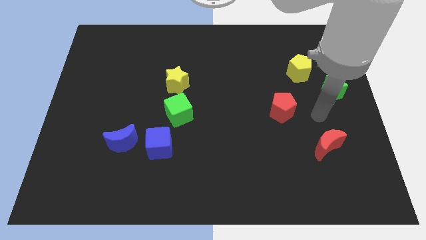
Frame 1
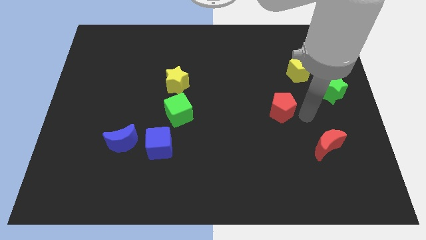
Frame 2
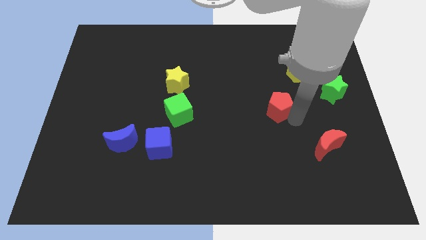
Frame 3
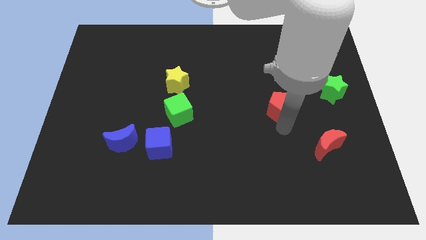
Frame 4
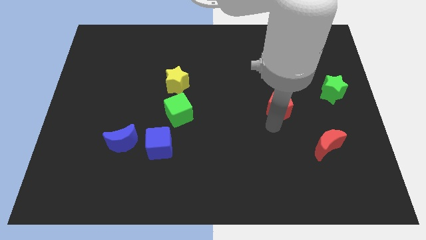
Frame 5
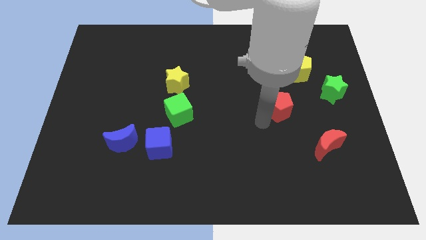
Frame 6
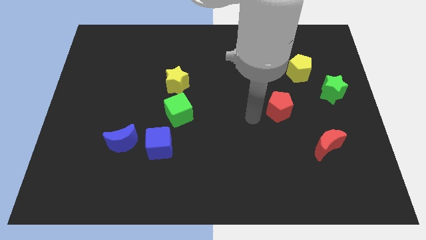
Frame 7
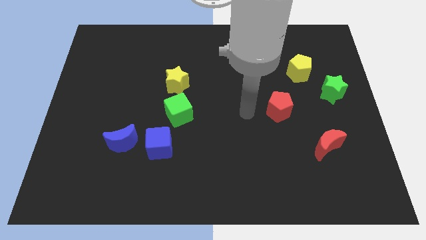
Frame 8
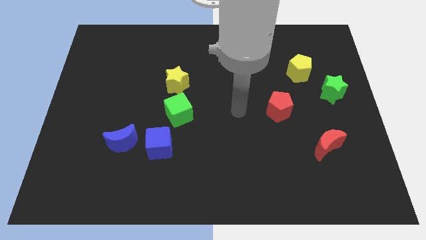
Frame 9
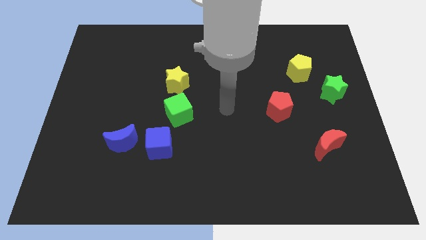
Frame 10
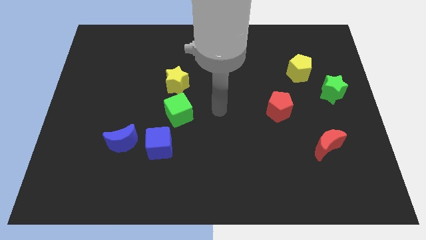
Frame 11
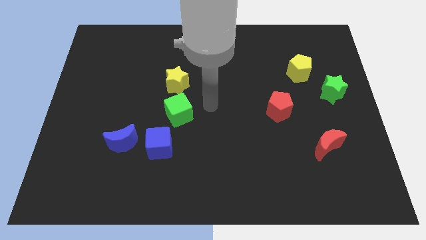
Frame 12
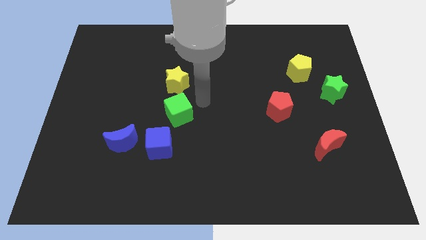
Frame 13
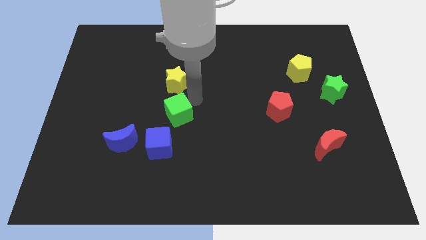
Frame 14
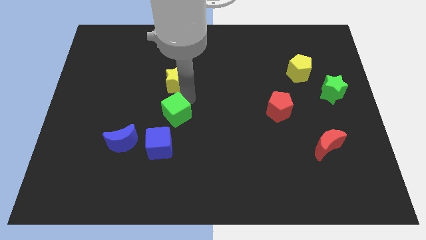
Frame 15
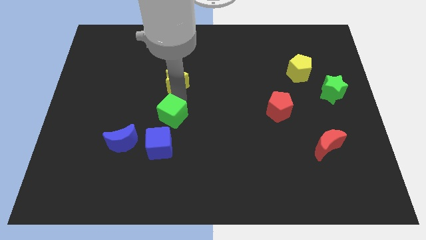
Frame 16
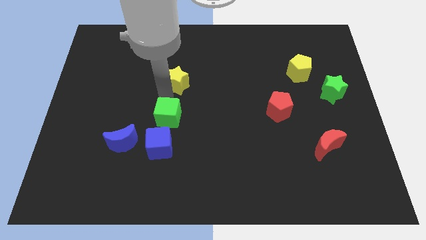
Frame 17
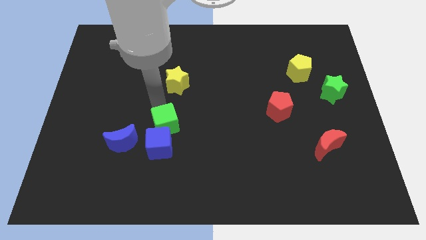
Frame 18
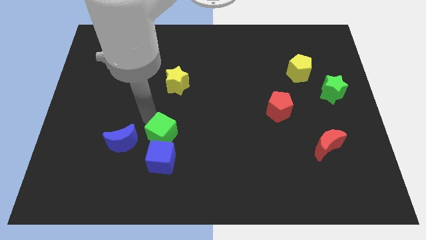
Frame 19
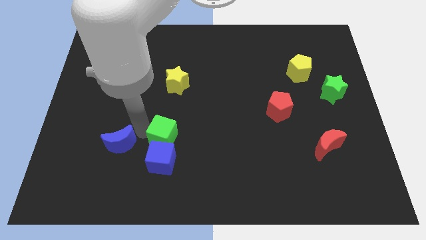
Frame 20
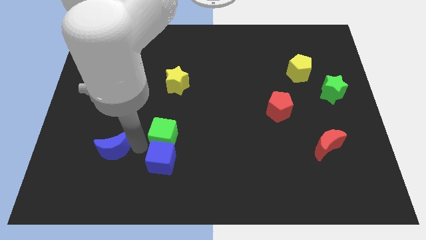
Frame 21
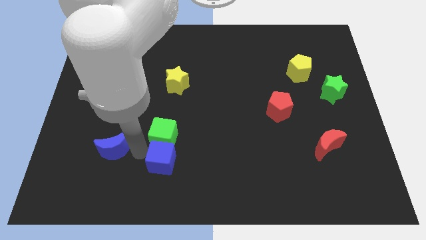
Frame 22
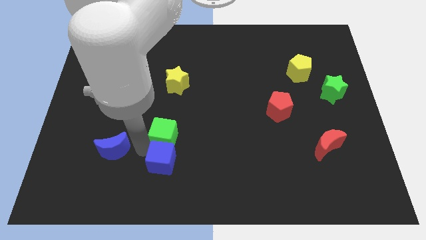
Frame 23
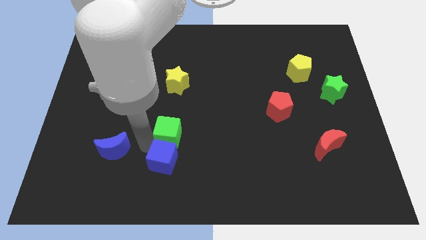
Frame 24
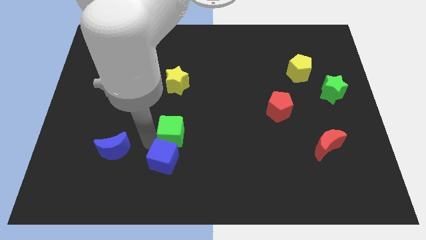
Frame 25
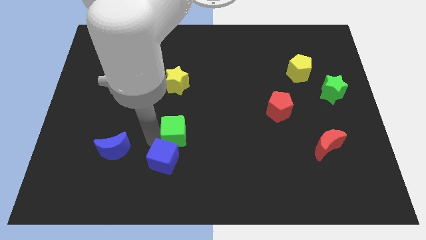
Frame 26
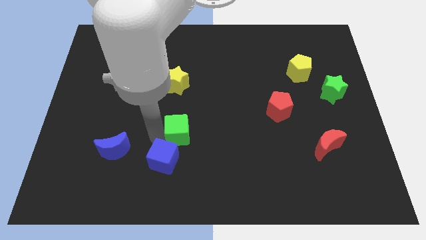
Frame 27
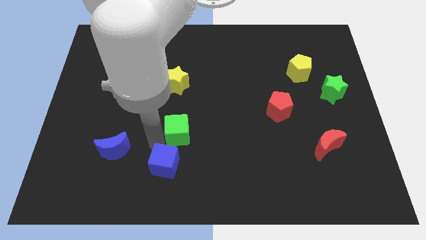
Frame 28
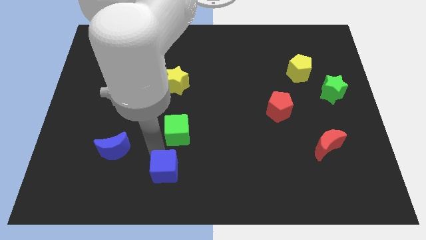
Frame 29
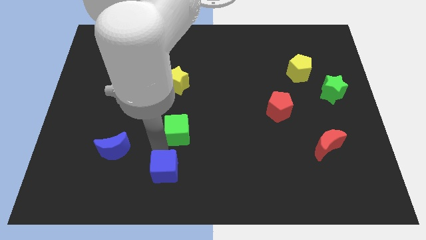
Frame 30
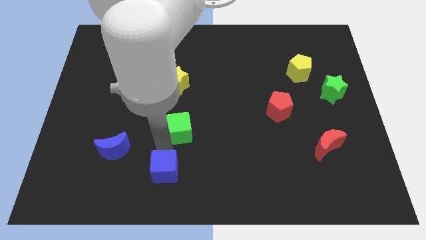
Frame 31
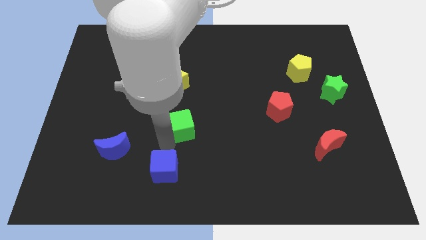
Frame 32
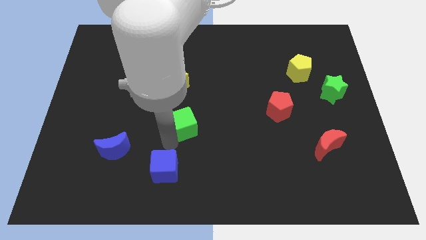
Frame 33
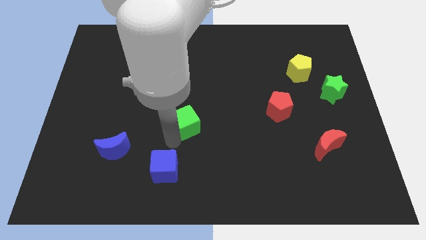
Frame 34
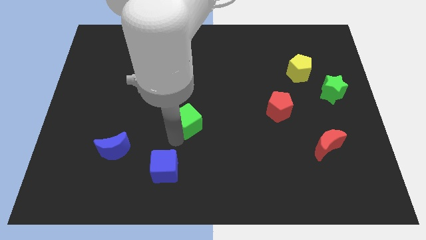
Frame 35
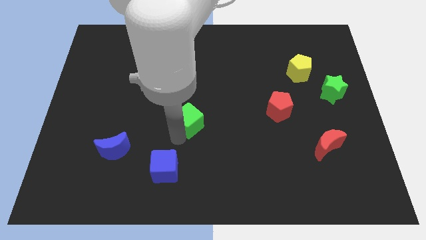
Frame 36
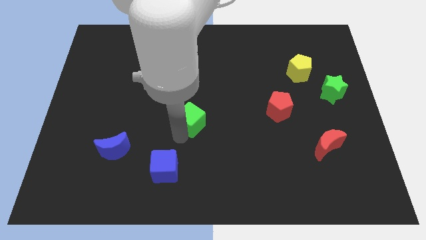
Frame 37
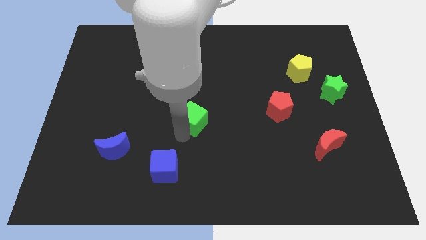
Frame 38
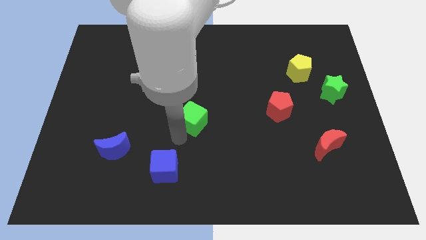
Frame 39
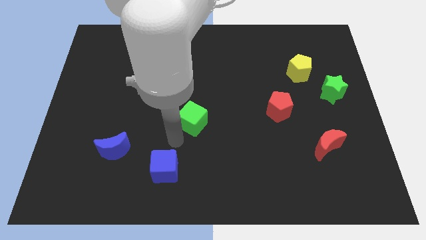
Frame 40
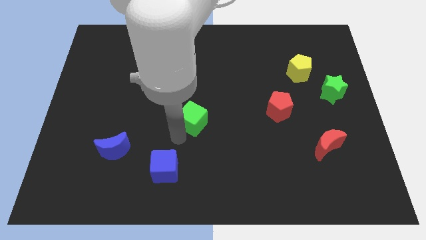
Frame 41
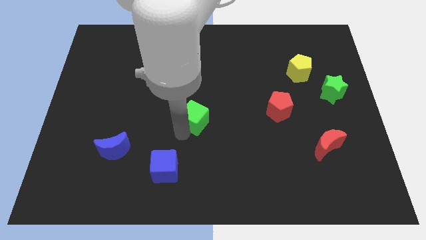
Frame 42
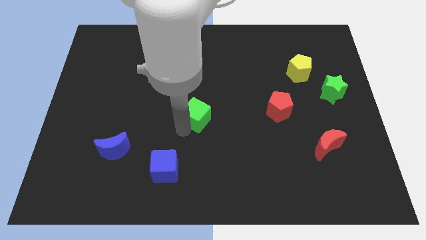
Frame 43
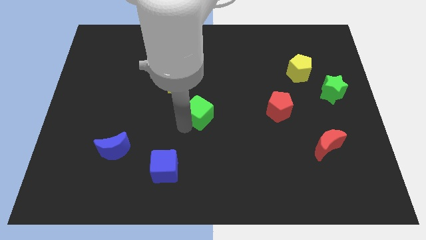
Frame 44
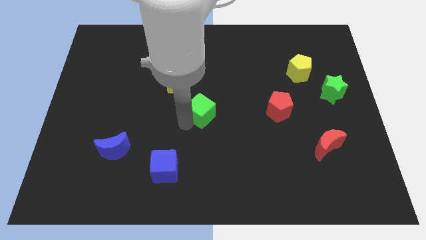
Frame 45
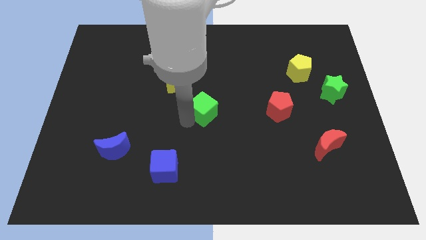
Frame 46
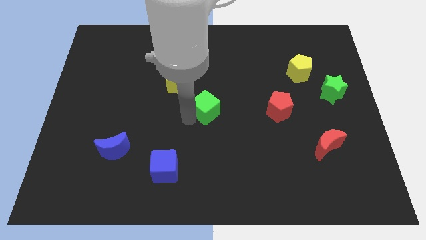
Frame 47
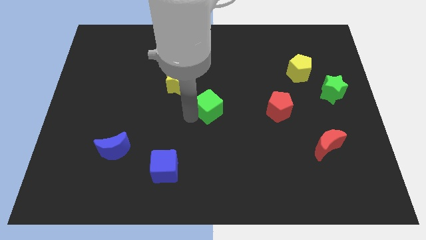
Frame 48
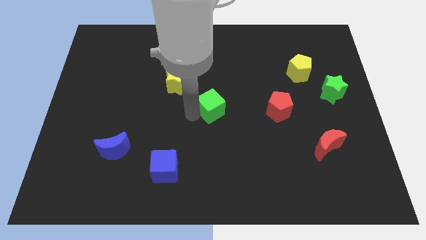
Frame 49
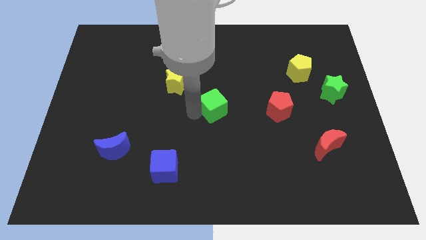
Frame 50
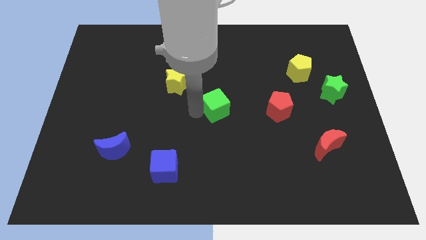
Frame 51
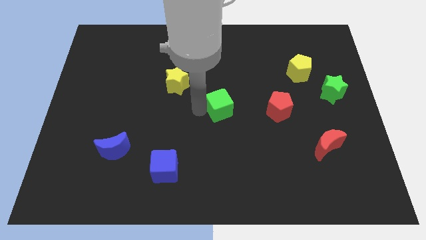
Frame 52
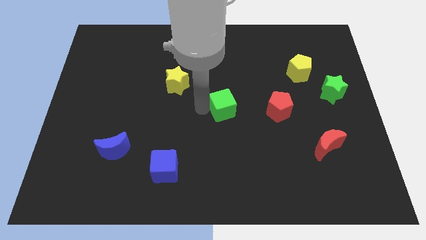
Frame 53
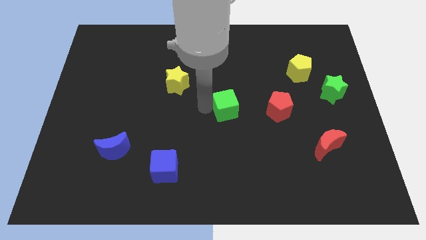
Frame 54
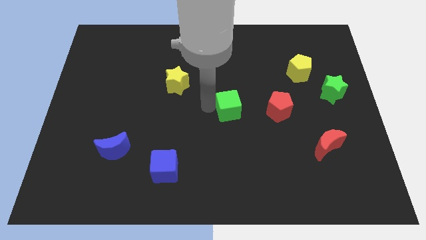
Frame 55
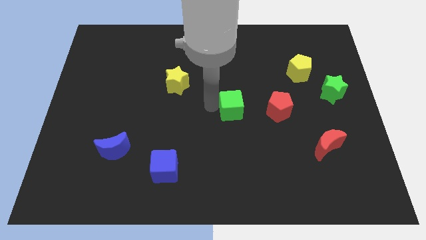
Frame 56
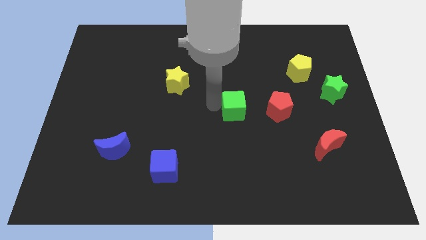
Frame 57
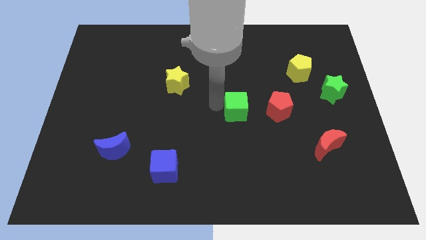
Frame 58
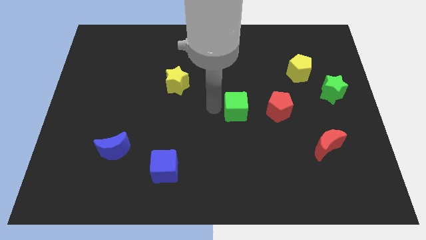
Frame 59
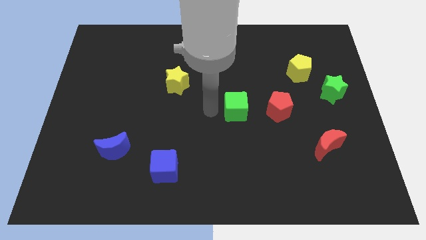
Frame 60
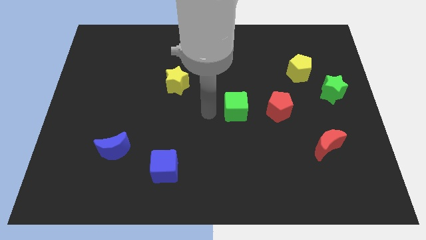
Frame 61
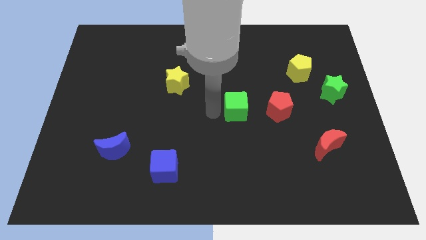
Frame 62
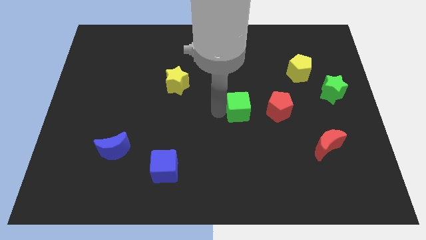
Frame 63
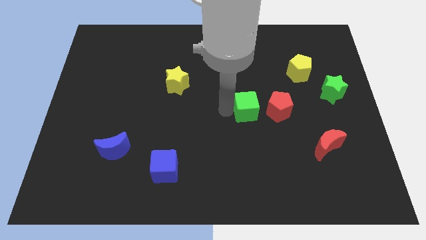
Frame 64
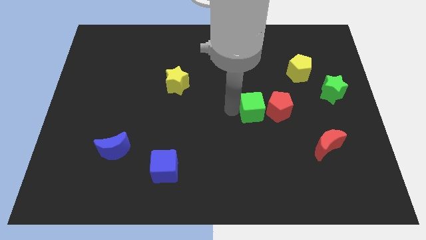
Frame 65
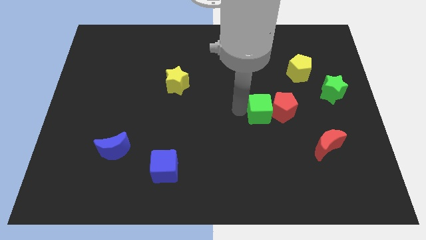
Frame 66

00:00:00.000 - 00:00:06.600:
slide the green cube to the red pentagon

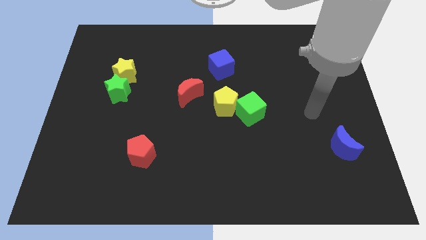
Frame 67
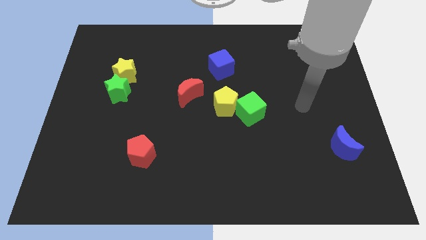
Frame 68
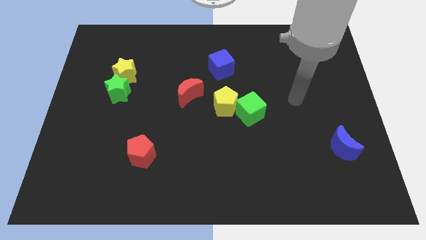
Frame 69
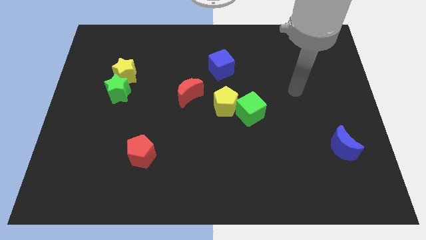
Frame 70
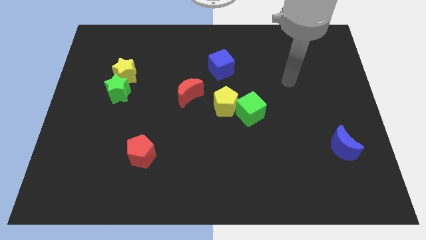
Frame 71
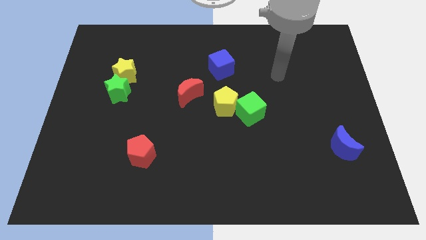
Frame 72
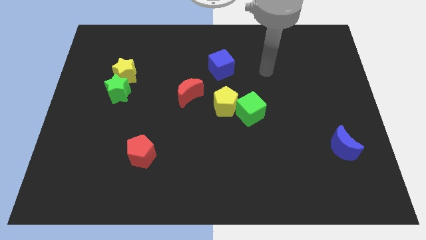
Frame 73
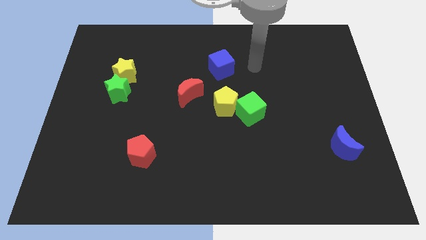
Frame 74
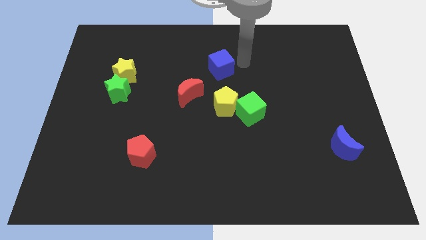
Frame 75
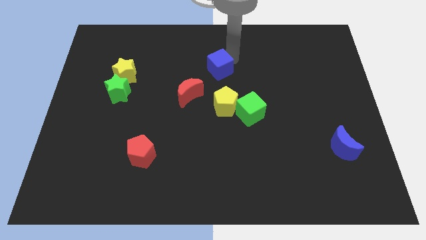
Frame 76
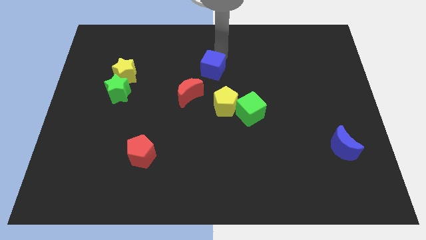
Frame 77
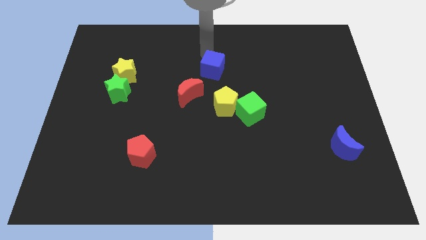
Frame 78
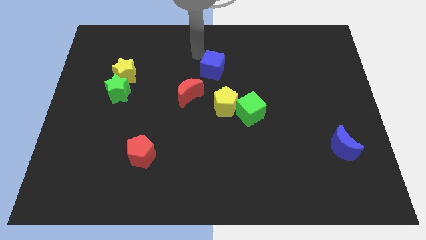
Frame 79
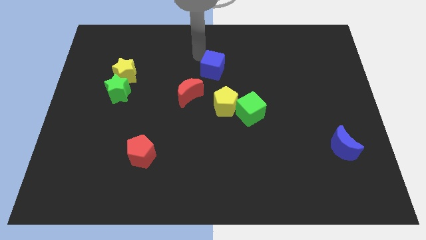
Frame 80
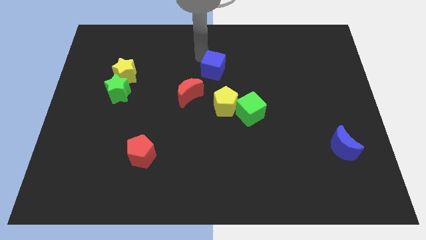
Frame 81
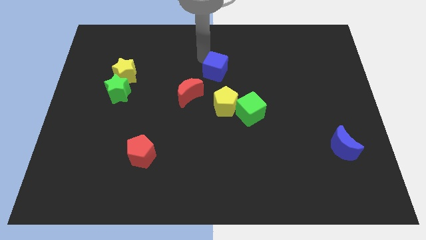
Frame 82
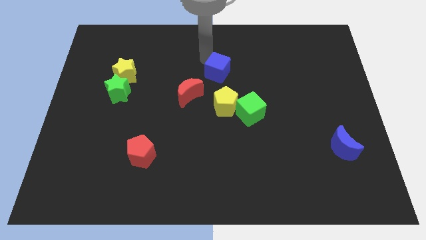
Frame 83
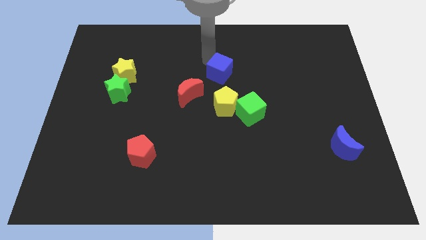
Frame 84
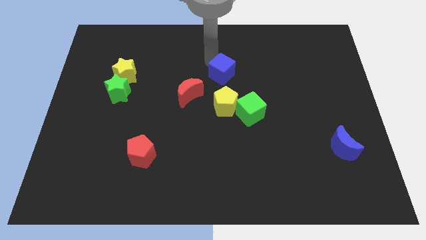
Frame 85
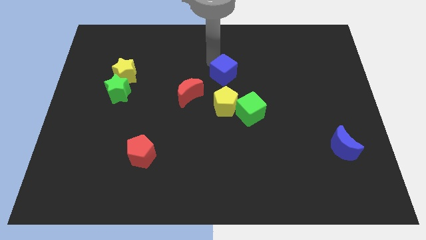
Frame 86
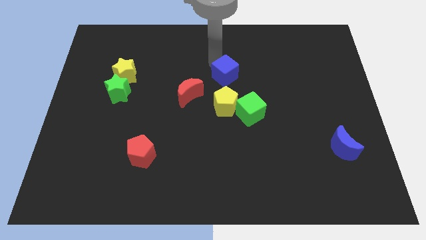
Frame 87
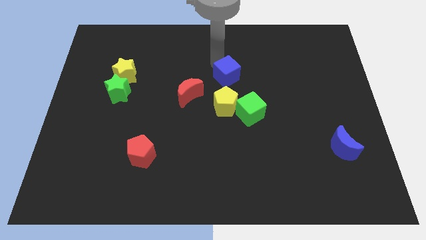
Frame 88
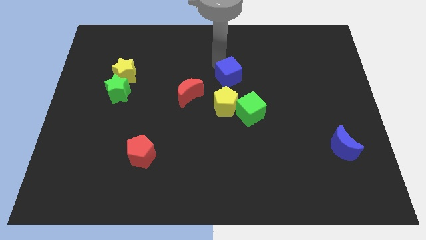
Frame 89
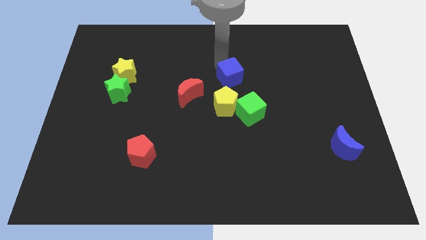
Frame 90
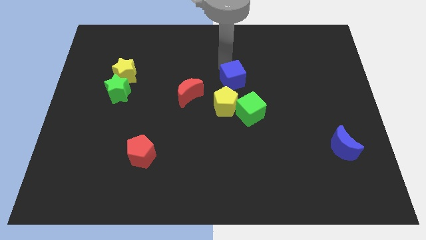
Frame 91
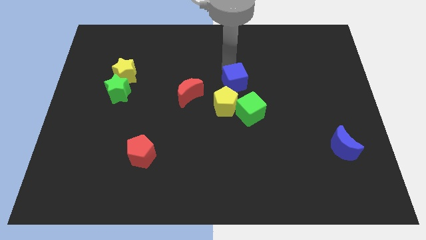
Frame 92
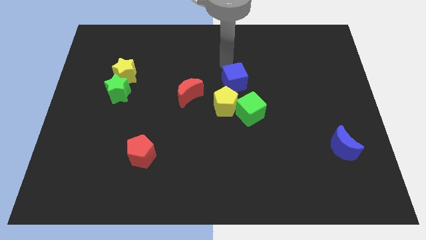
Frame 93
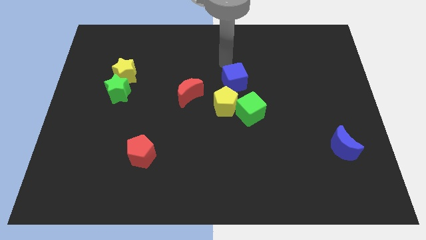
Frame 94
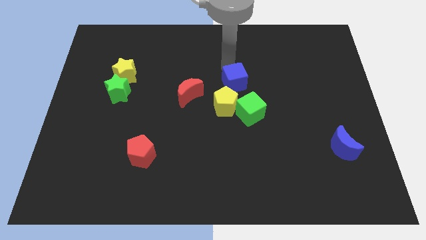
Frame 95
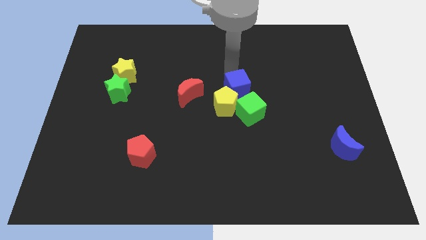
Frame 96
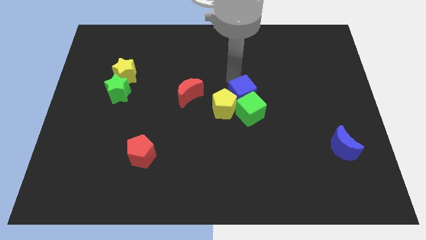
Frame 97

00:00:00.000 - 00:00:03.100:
push the blue cube next to the green cube
